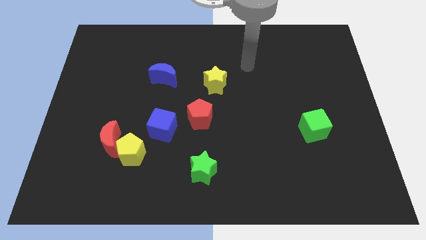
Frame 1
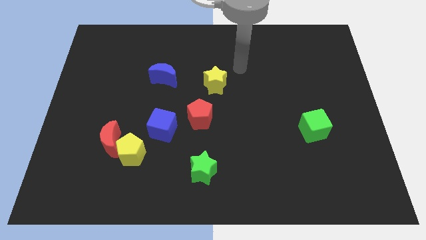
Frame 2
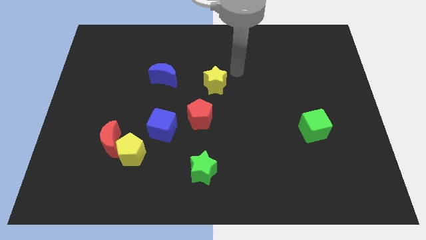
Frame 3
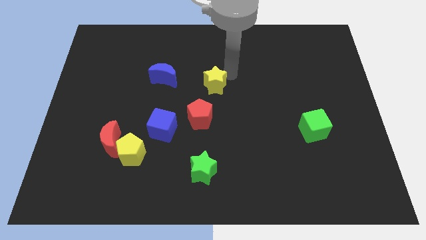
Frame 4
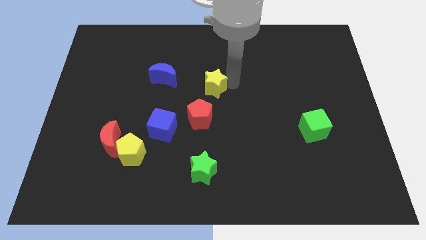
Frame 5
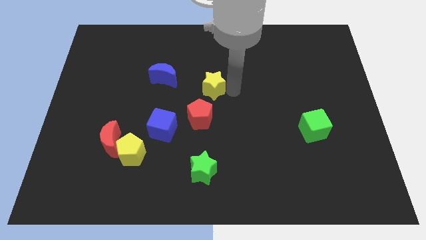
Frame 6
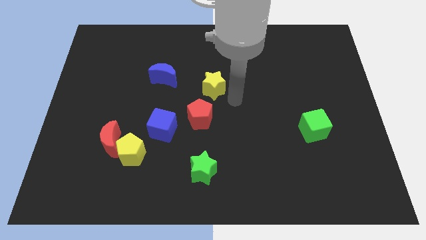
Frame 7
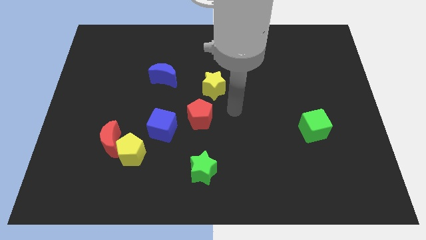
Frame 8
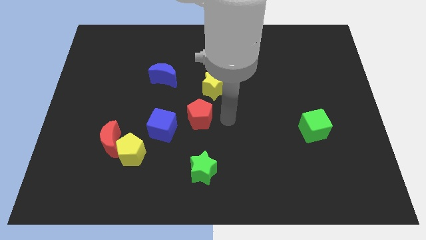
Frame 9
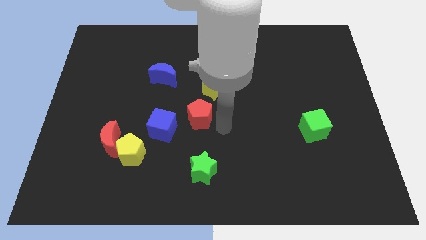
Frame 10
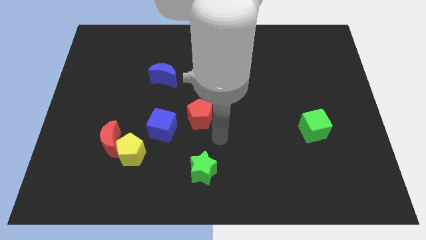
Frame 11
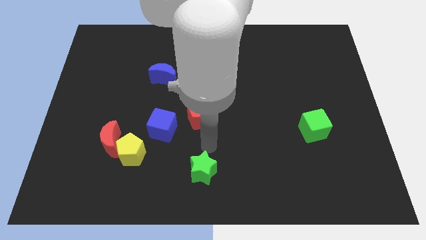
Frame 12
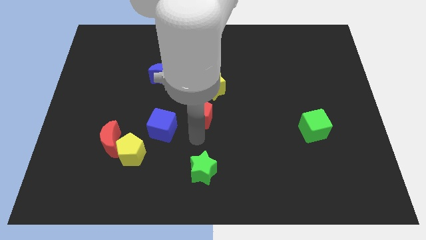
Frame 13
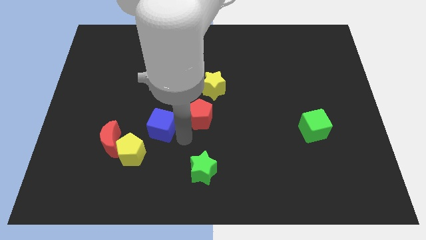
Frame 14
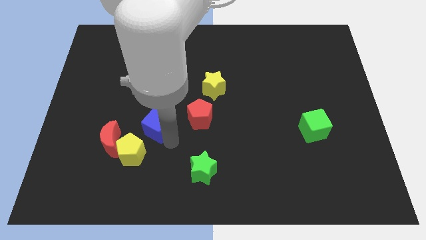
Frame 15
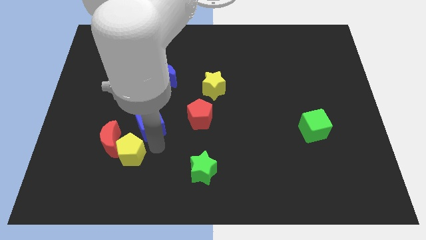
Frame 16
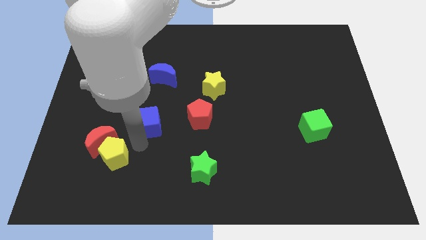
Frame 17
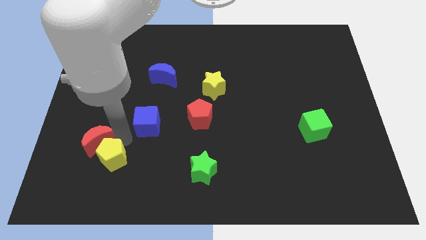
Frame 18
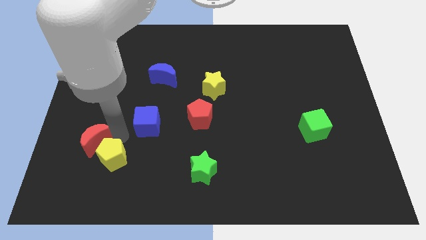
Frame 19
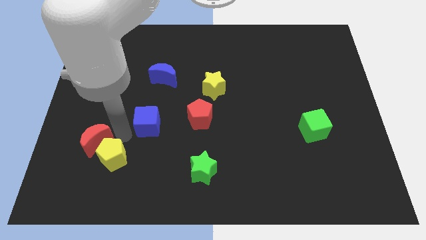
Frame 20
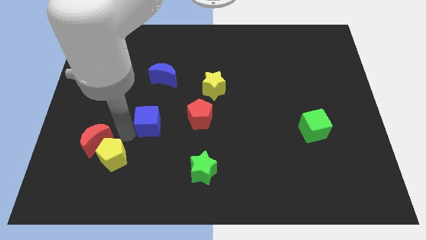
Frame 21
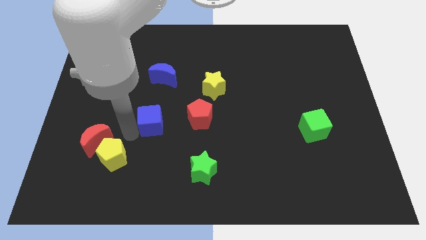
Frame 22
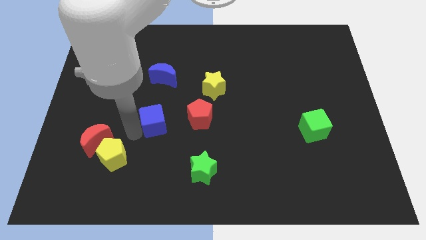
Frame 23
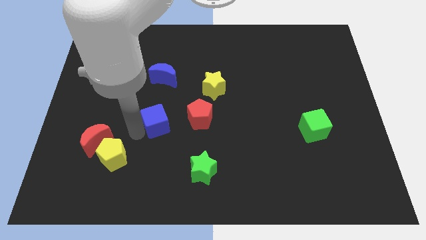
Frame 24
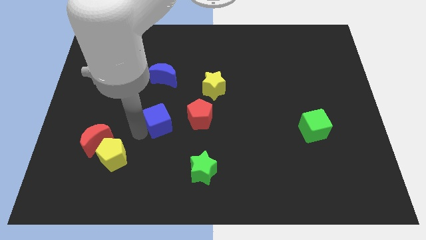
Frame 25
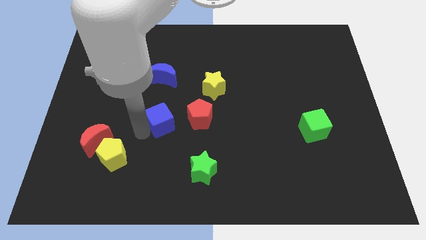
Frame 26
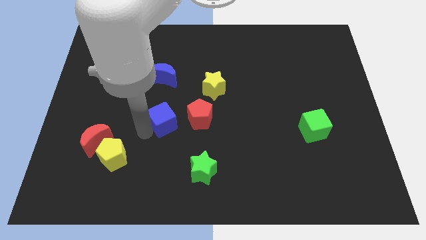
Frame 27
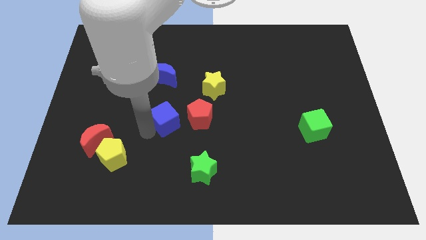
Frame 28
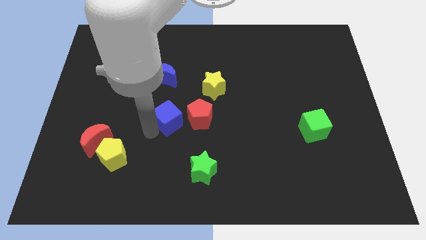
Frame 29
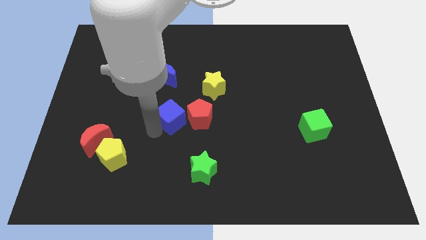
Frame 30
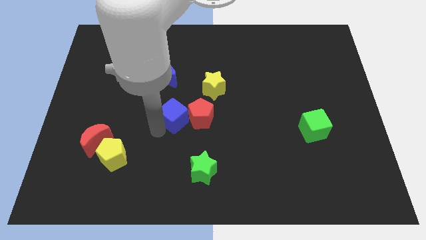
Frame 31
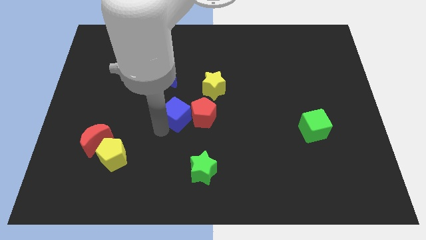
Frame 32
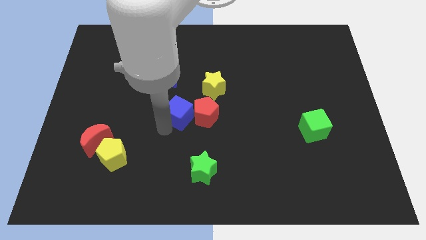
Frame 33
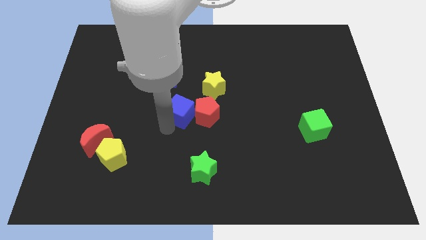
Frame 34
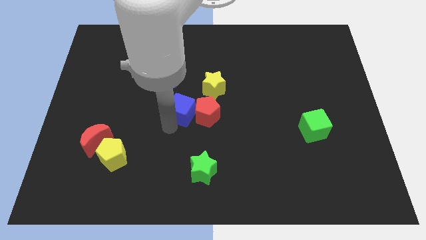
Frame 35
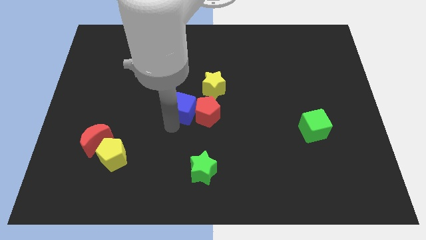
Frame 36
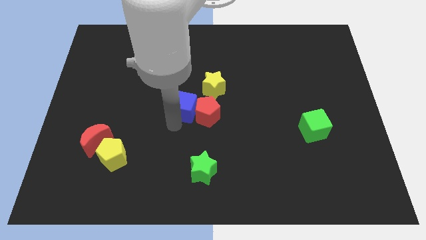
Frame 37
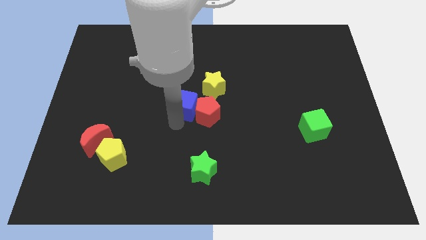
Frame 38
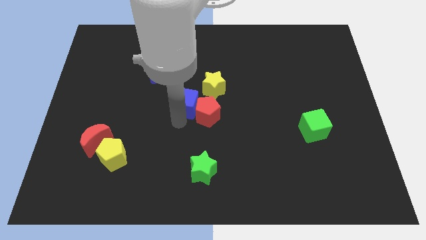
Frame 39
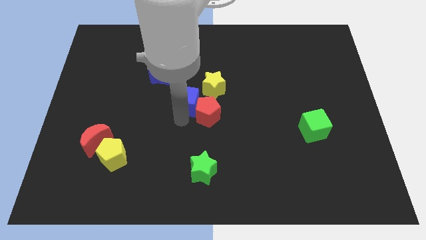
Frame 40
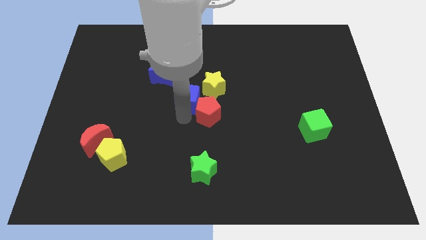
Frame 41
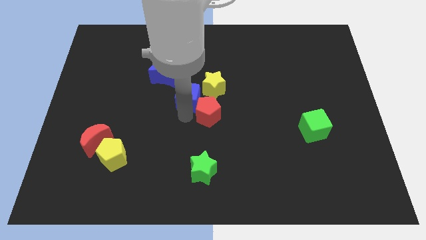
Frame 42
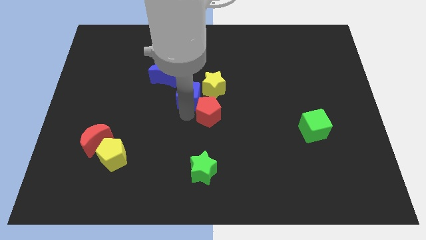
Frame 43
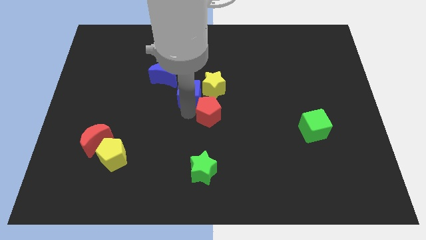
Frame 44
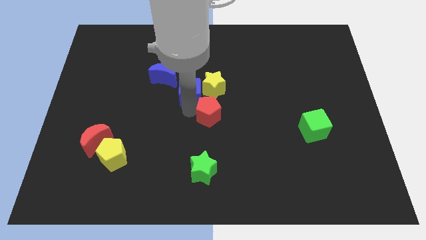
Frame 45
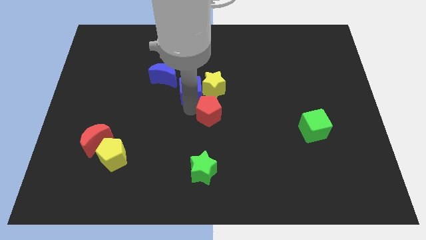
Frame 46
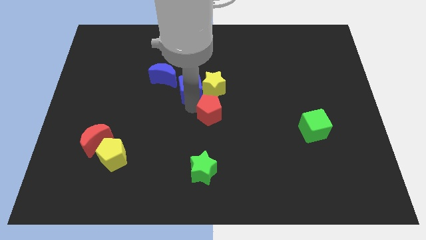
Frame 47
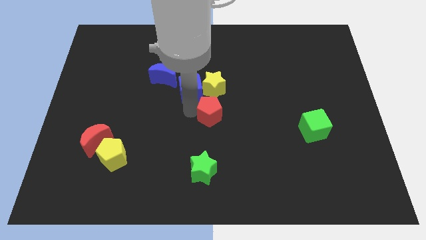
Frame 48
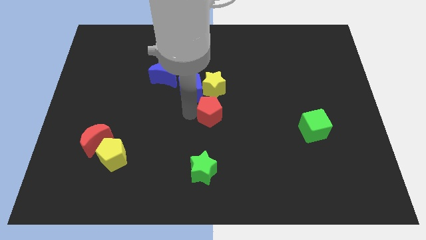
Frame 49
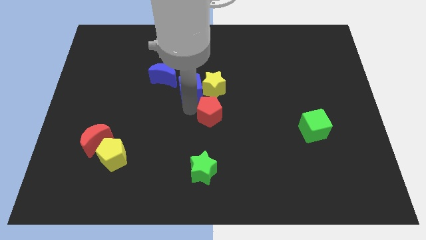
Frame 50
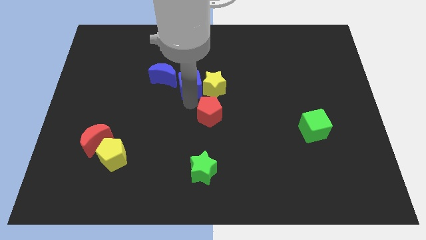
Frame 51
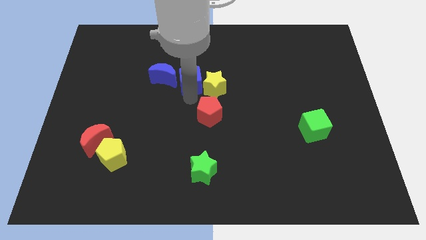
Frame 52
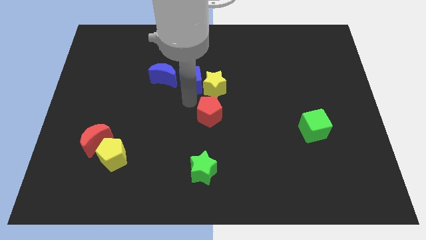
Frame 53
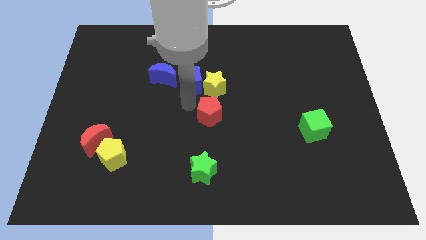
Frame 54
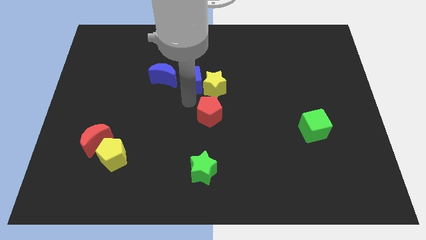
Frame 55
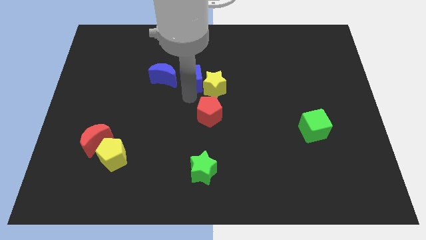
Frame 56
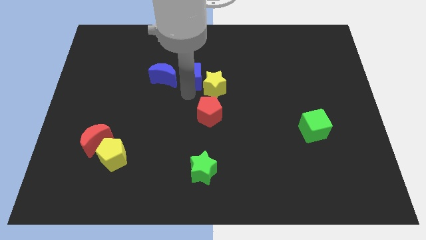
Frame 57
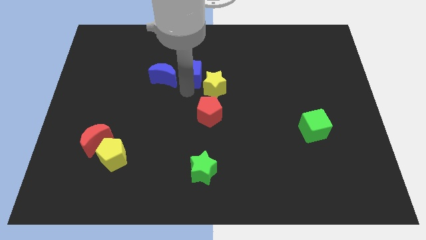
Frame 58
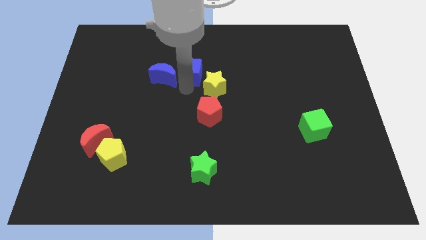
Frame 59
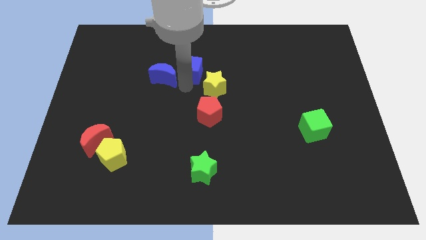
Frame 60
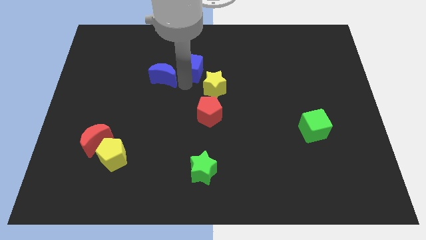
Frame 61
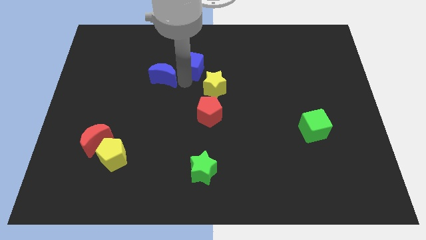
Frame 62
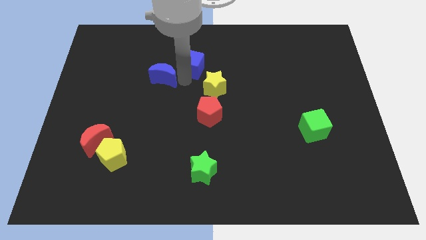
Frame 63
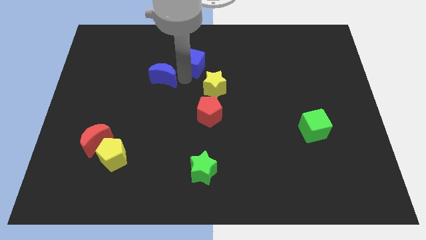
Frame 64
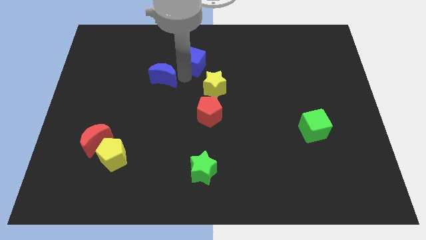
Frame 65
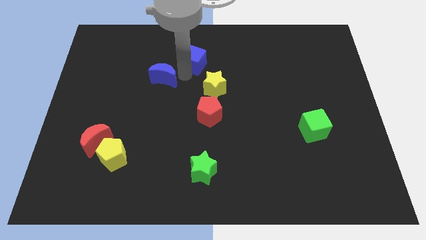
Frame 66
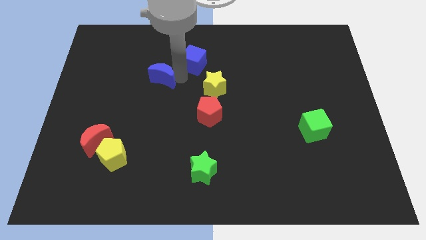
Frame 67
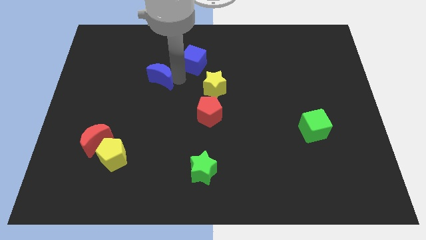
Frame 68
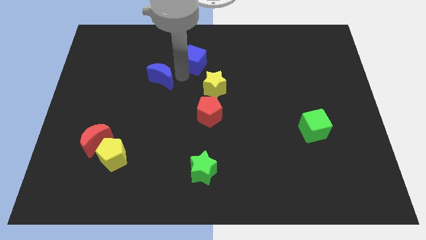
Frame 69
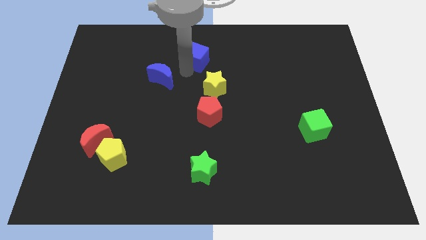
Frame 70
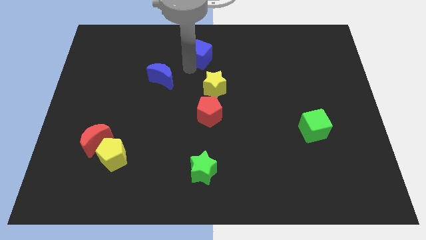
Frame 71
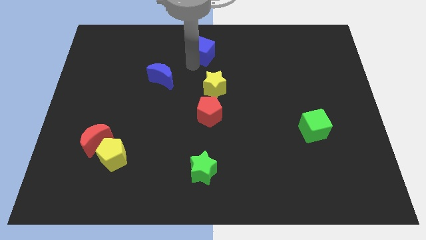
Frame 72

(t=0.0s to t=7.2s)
put the blue cube to the towards your base
